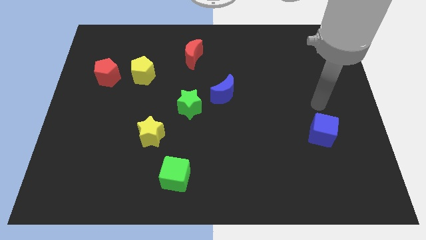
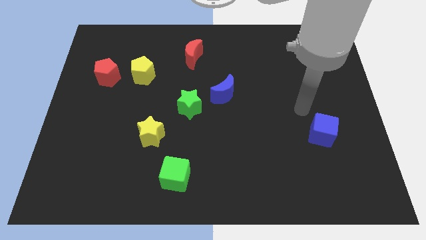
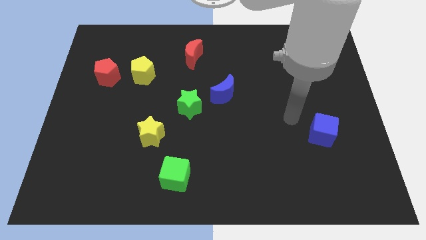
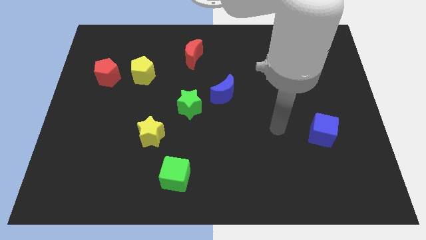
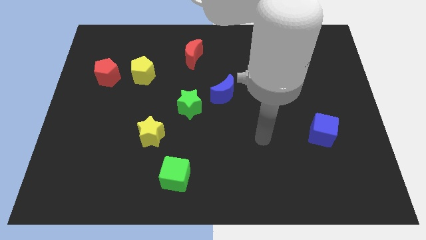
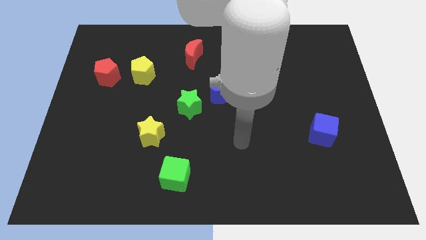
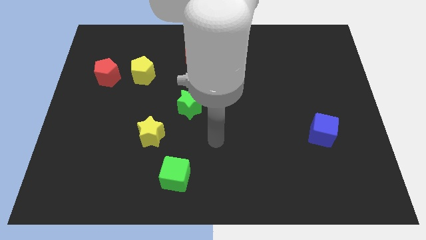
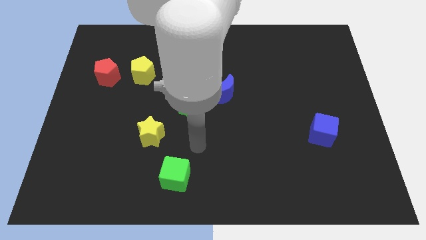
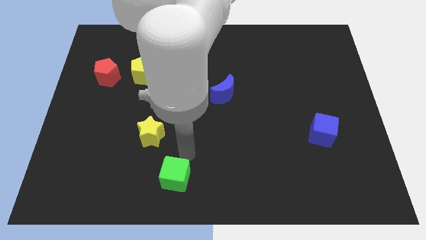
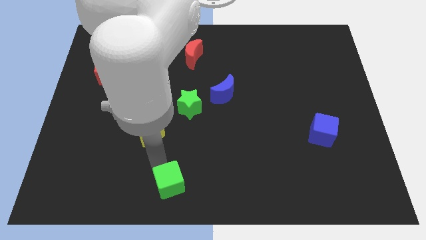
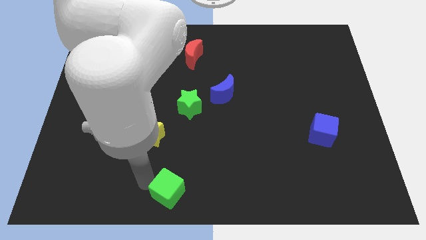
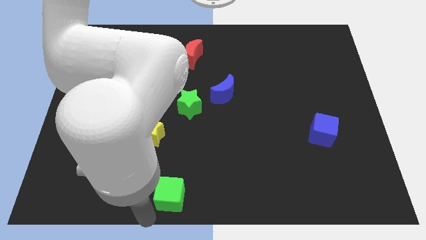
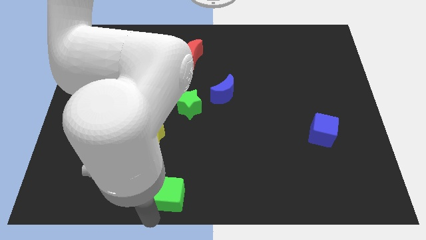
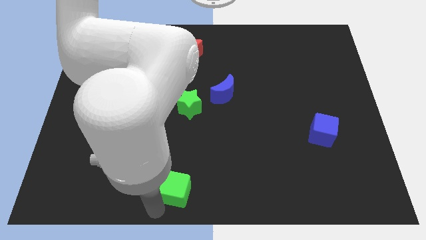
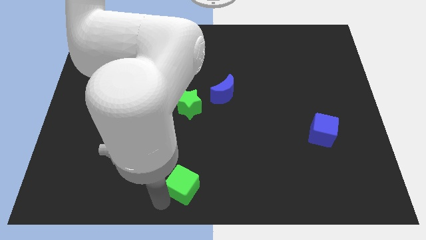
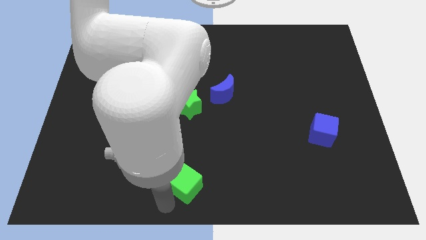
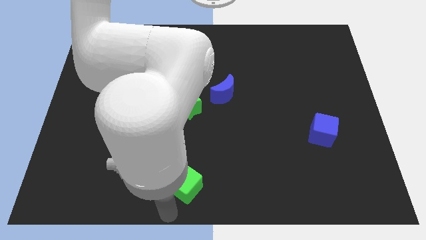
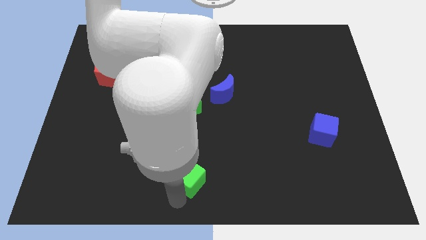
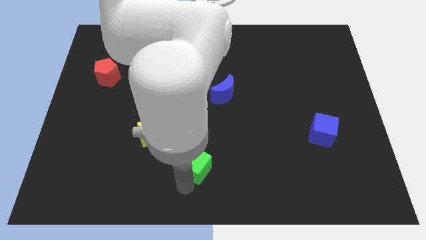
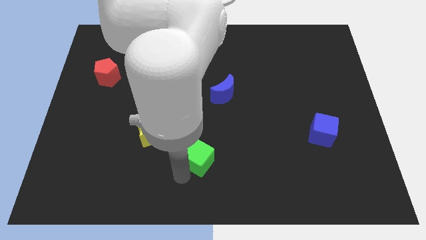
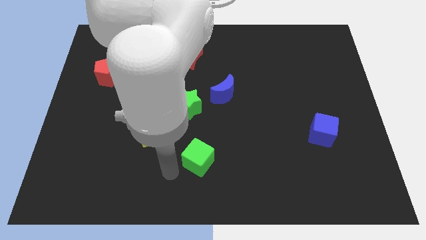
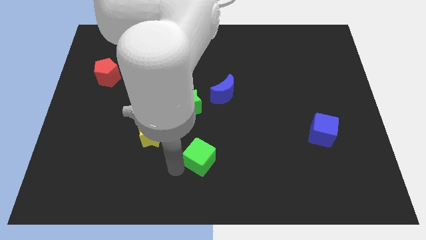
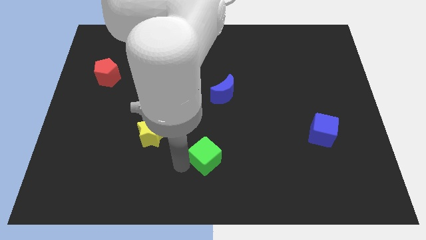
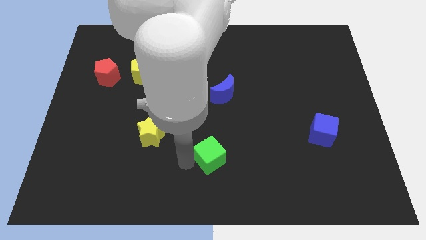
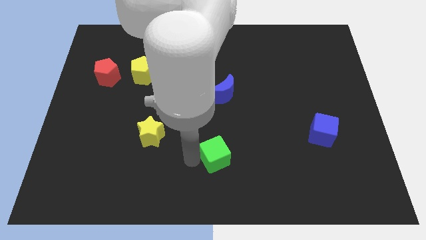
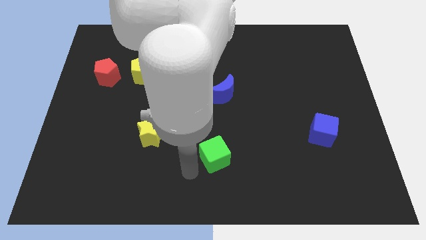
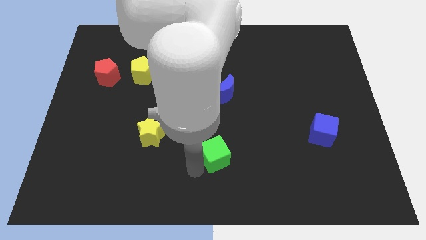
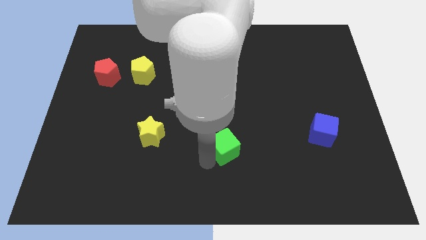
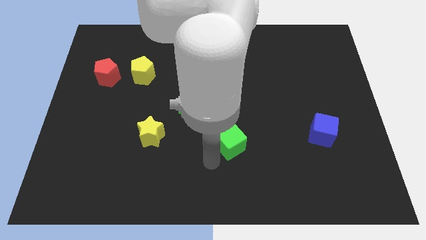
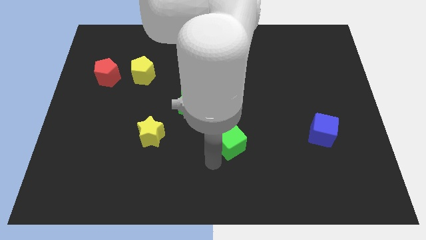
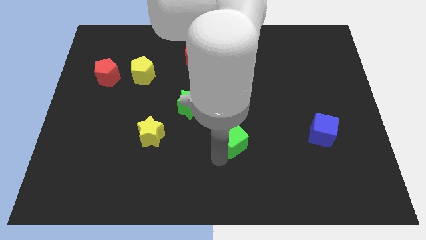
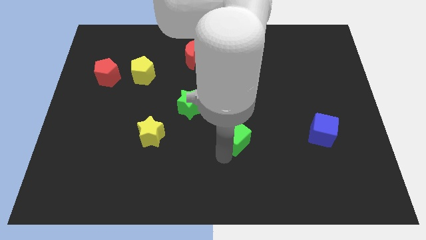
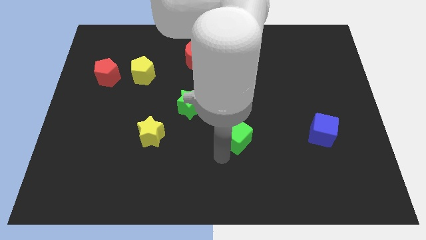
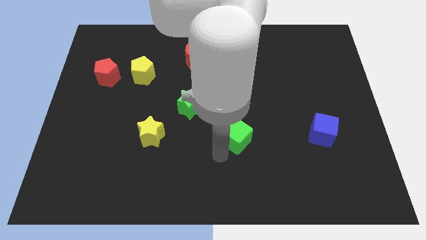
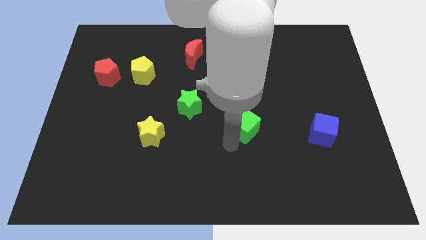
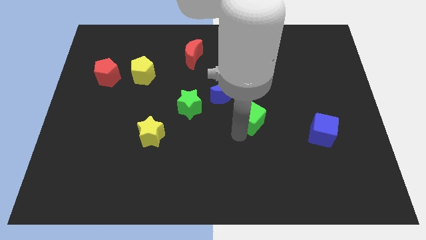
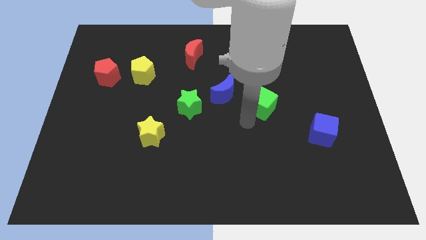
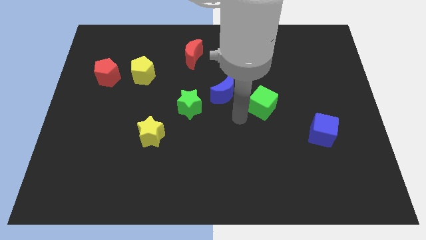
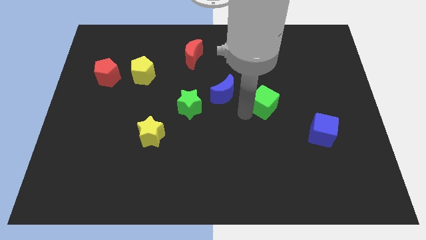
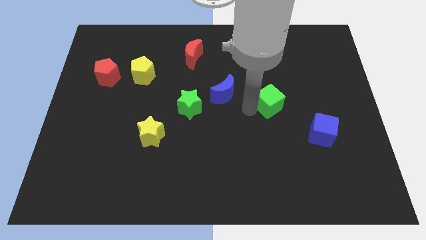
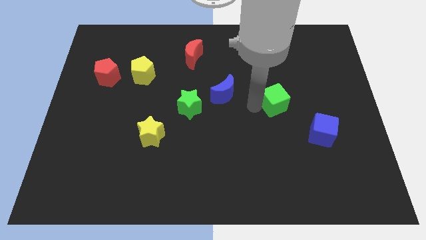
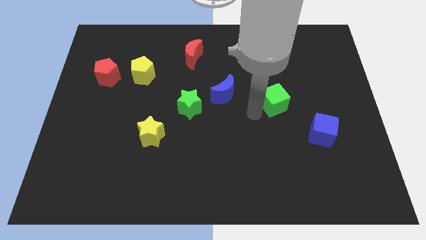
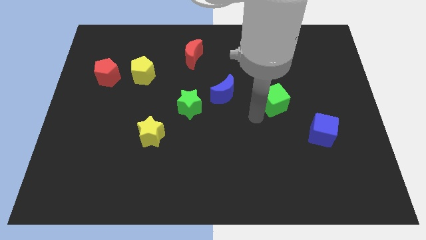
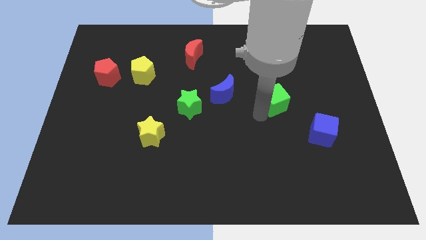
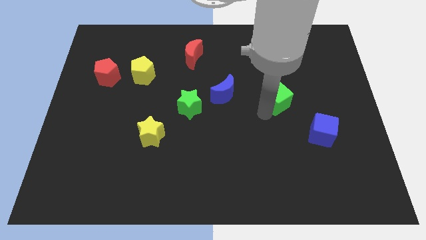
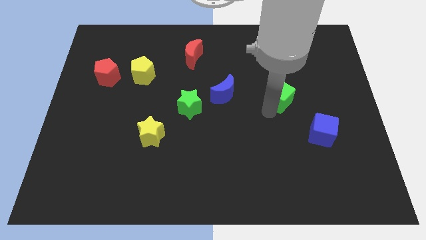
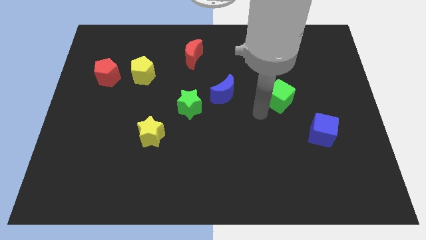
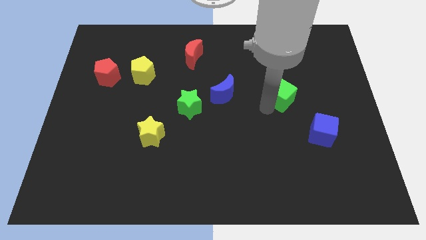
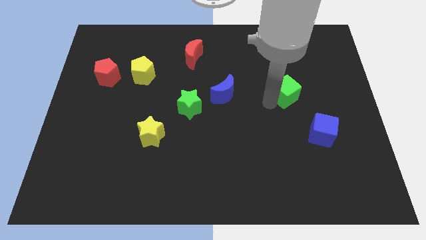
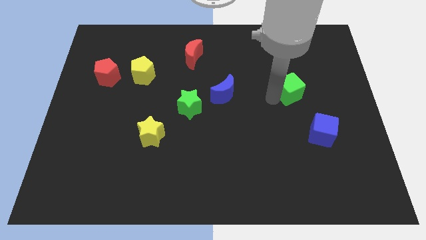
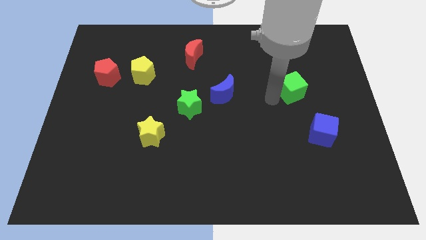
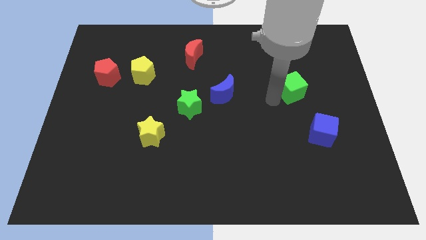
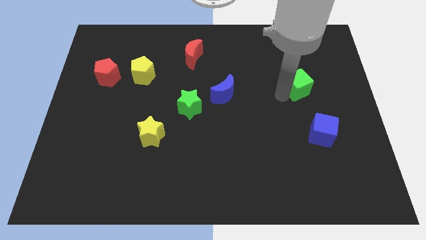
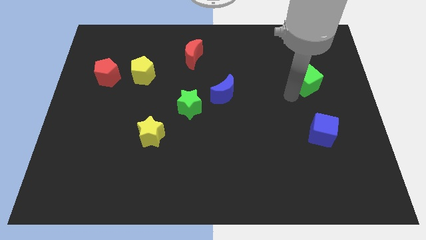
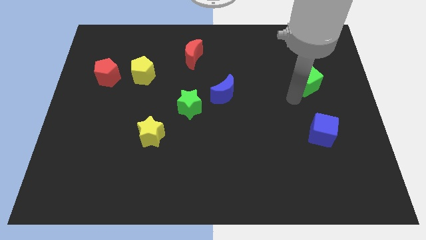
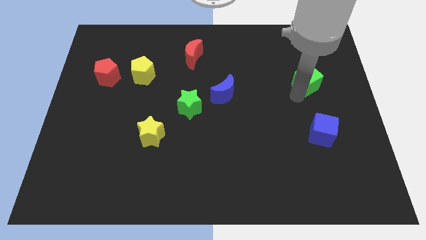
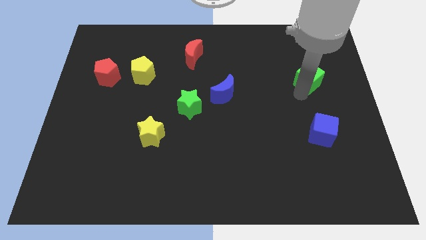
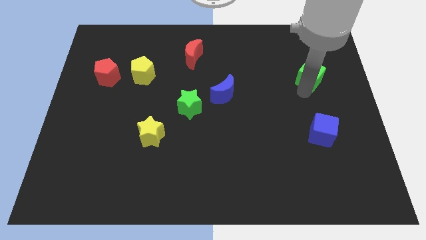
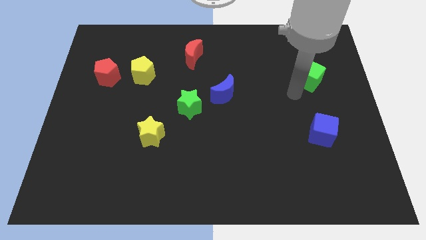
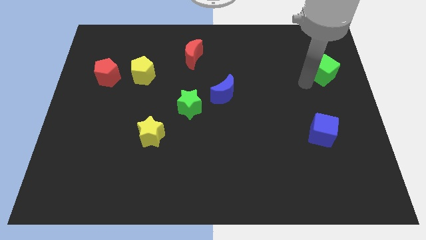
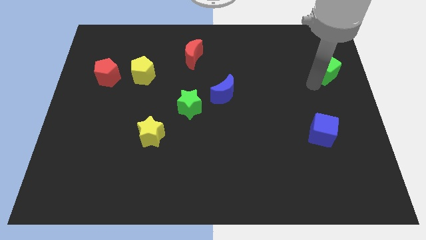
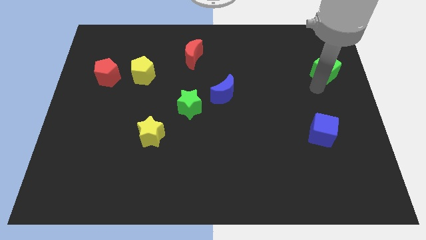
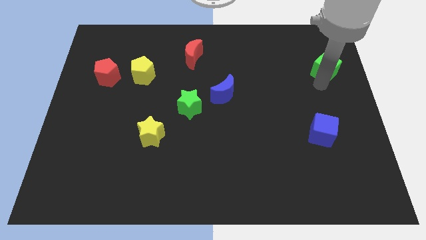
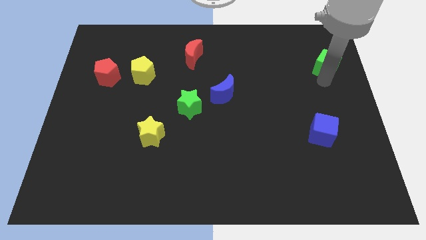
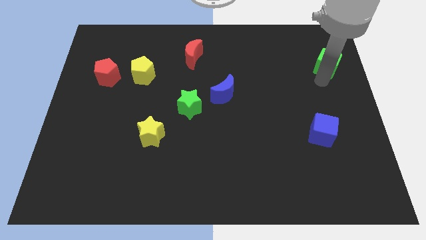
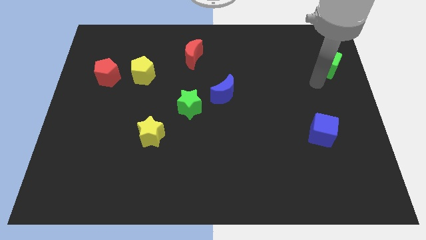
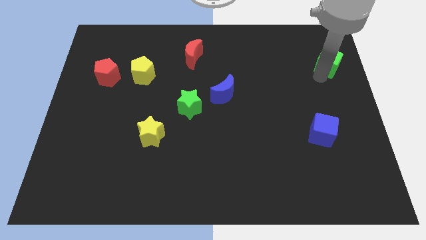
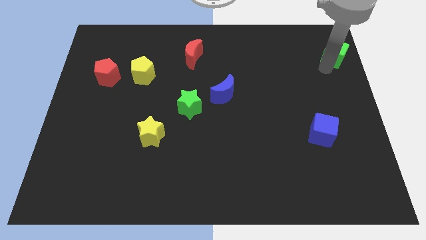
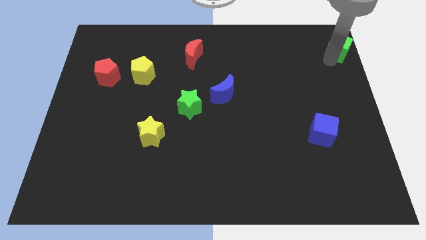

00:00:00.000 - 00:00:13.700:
slide the green cube to the top right corner
